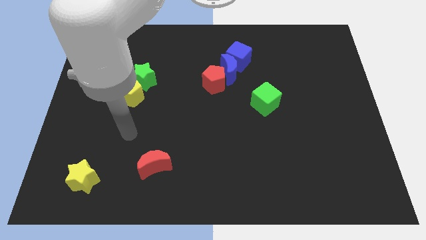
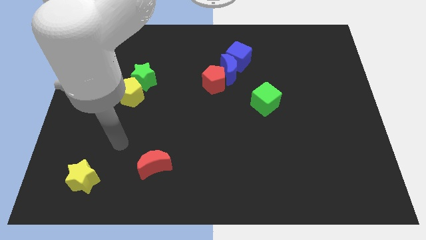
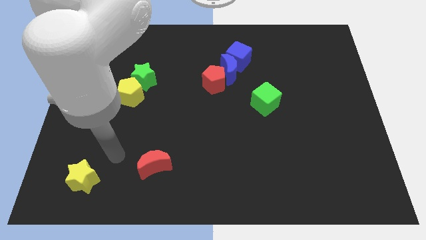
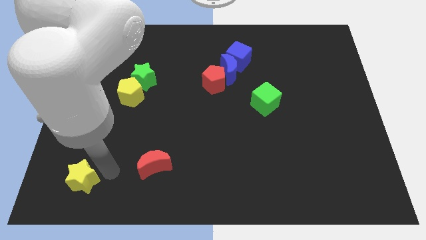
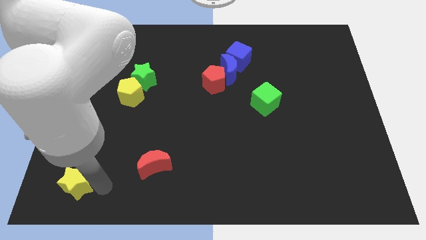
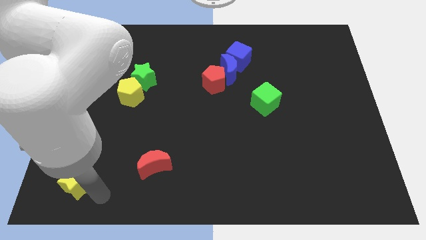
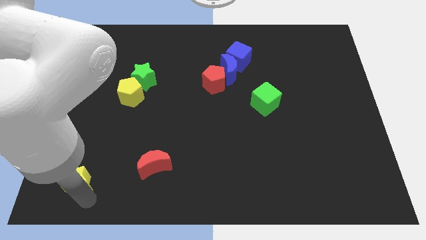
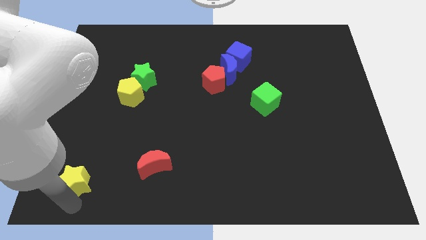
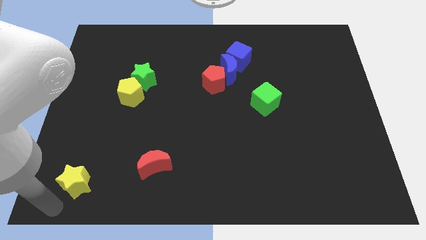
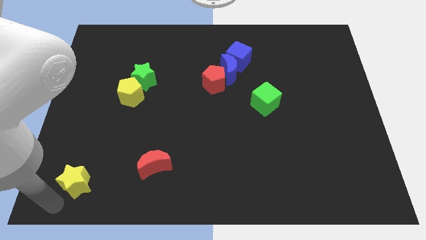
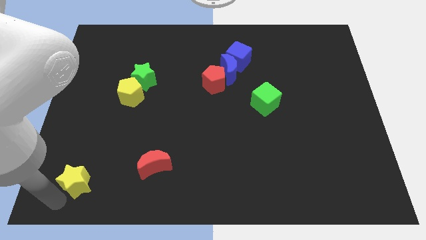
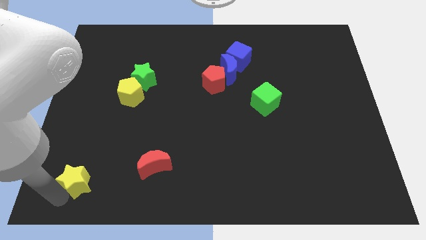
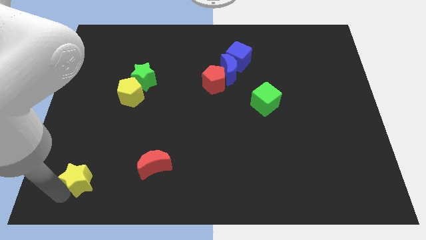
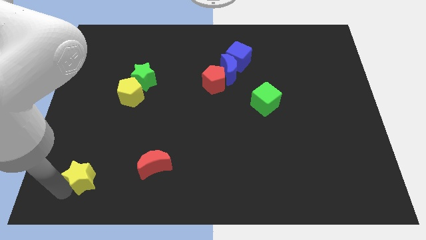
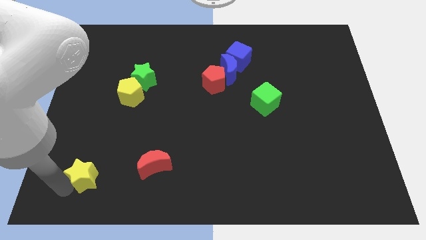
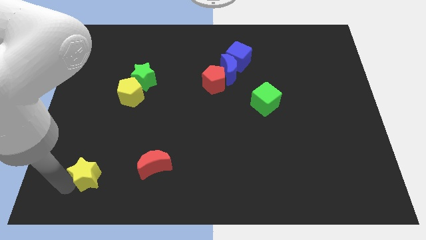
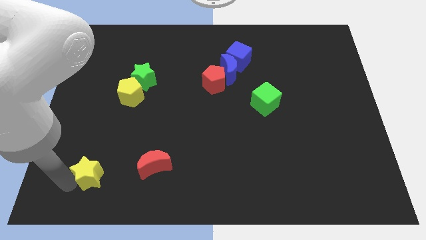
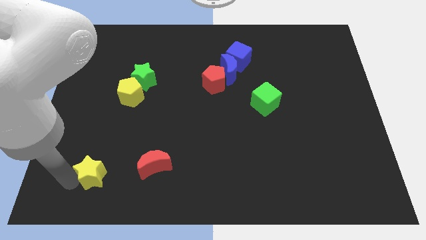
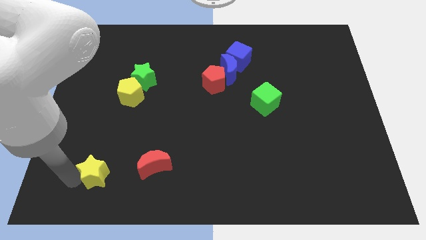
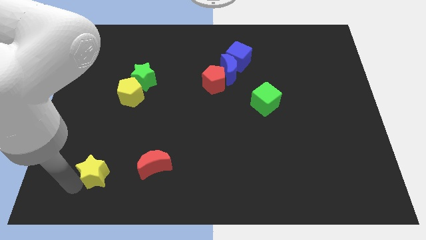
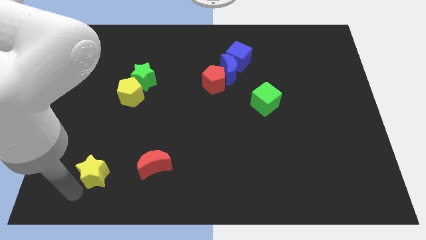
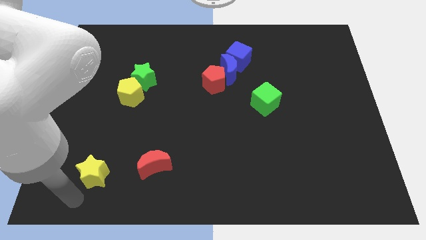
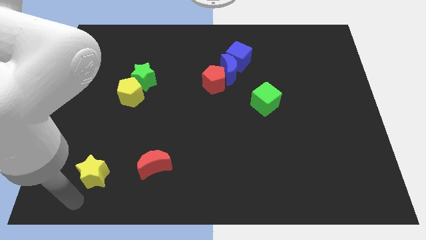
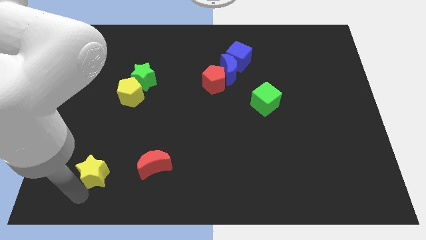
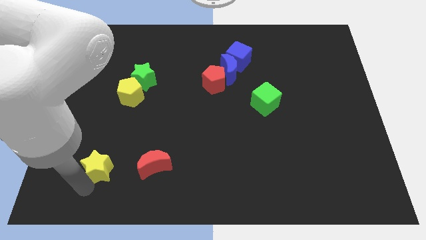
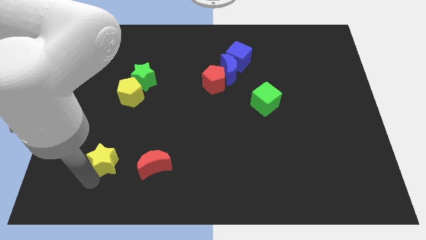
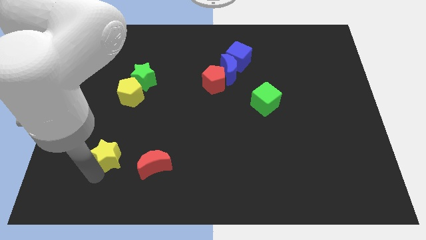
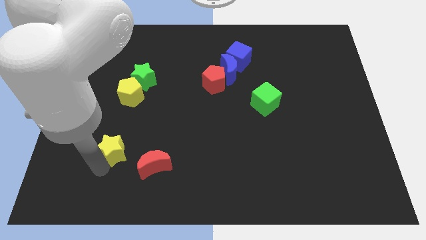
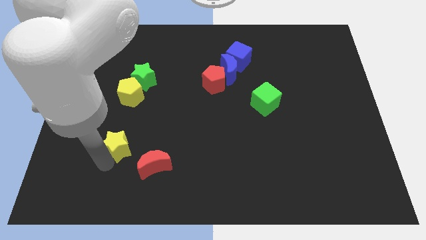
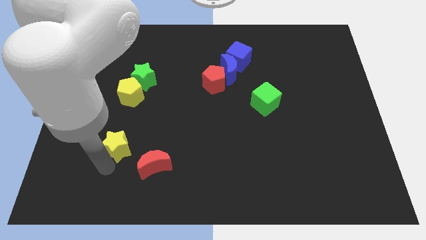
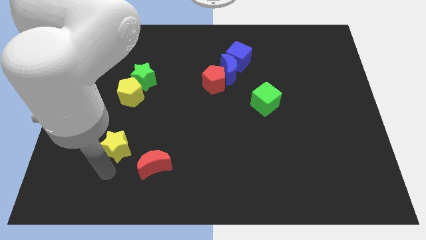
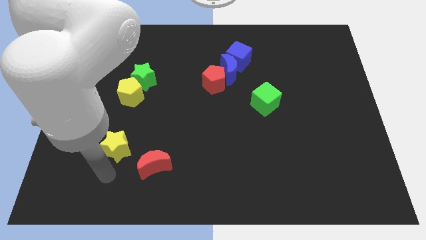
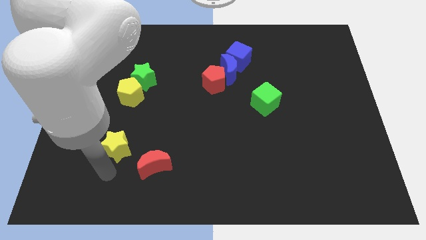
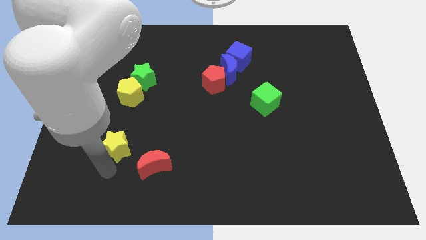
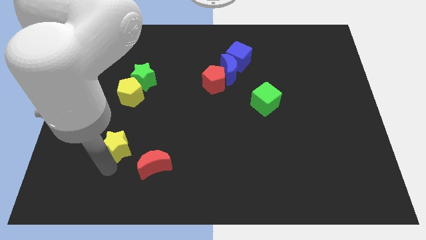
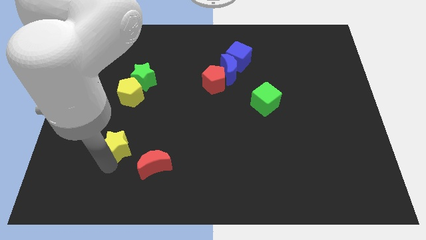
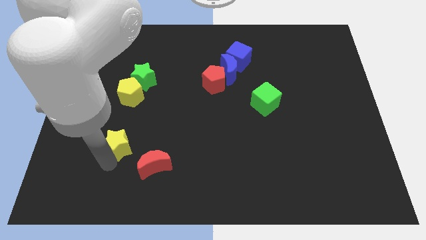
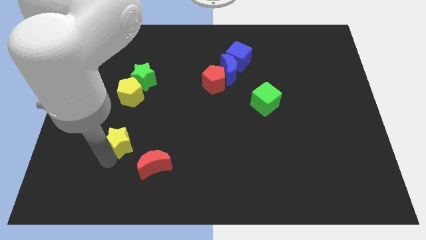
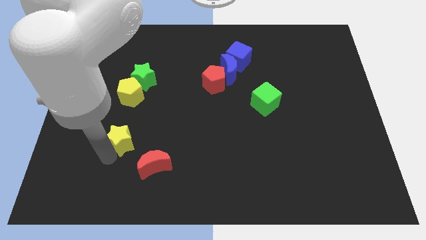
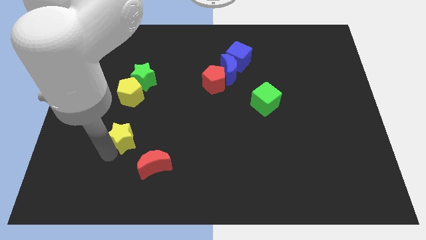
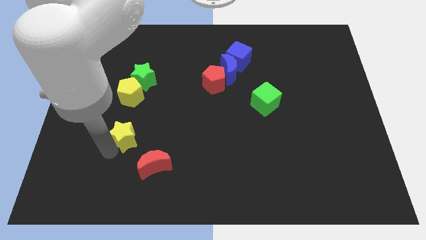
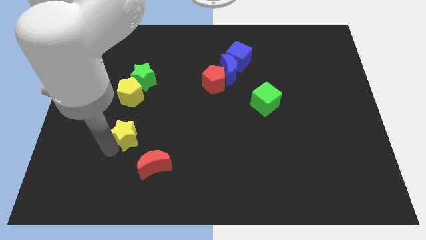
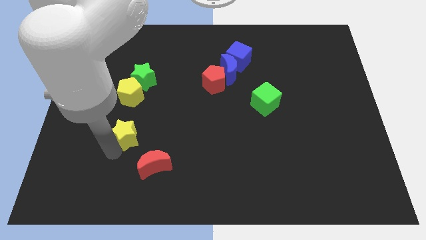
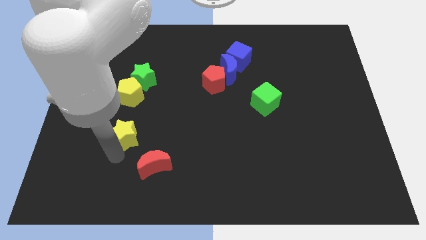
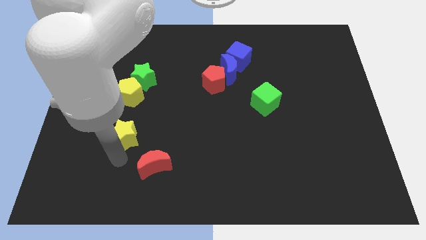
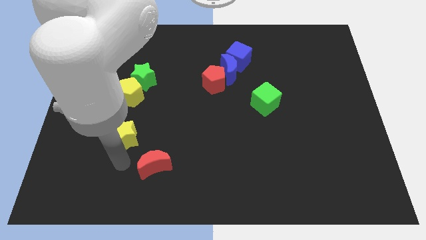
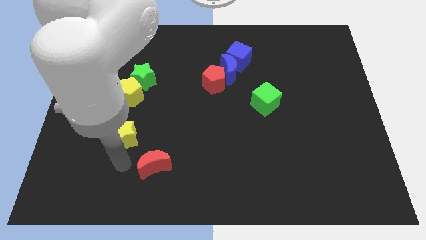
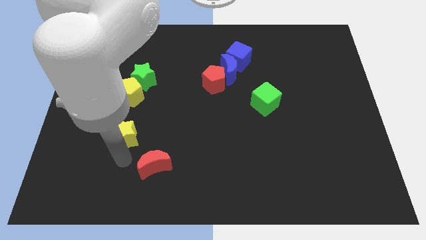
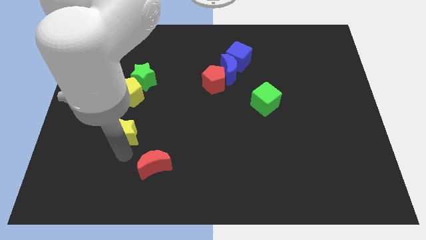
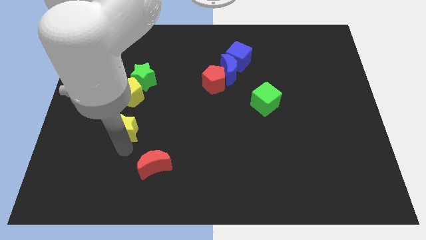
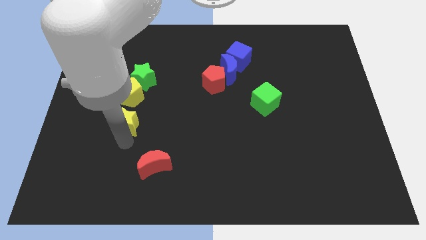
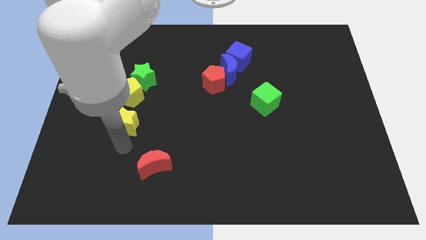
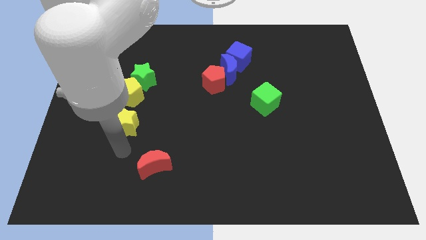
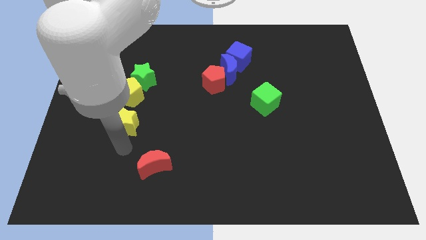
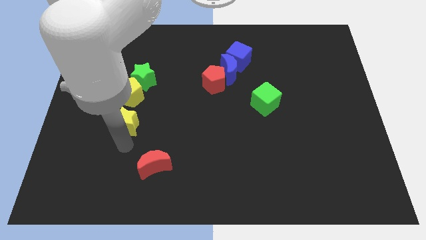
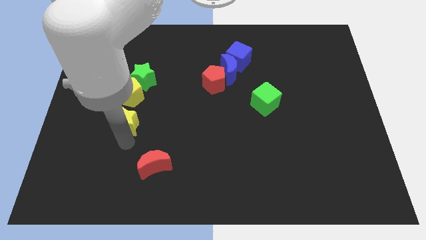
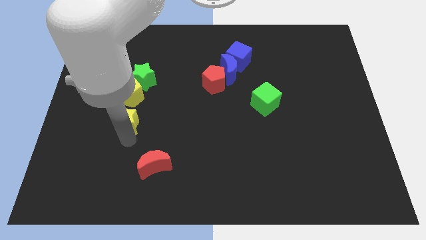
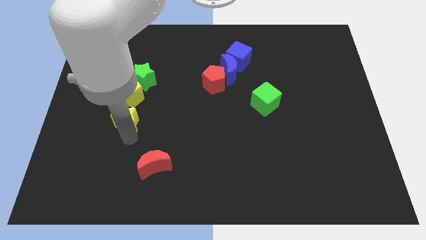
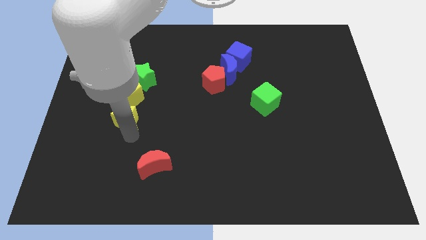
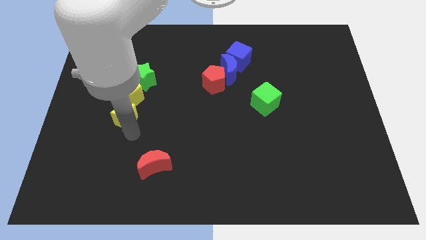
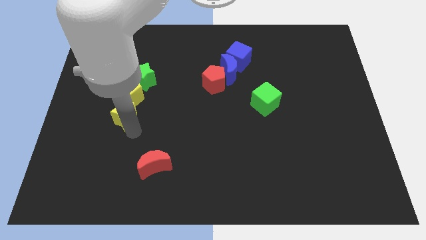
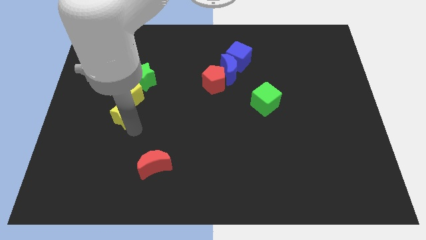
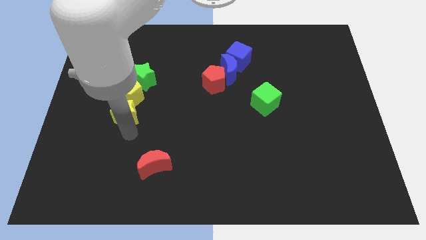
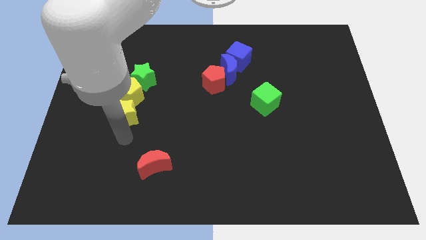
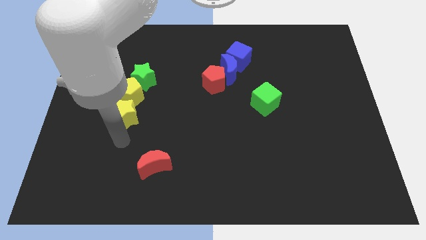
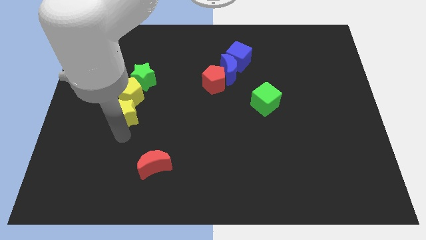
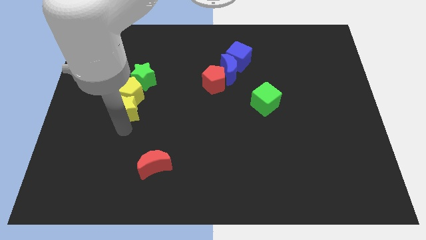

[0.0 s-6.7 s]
put the yellow star to the yellow pentagon
